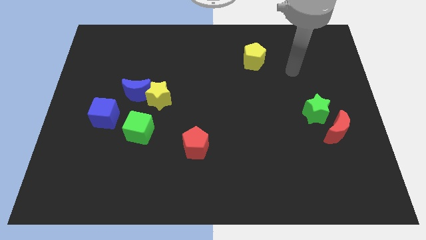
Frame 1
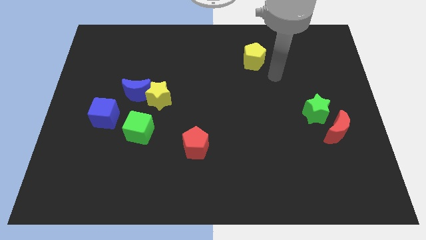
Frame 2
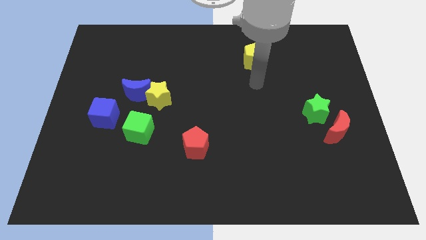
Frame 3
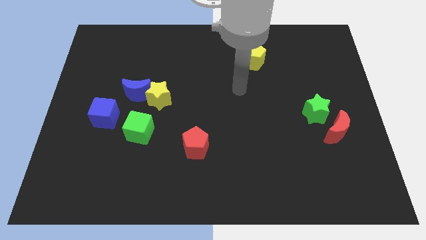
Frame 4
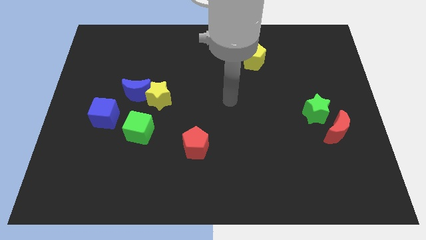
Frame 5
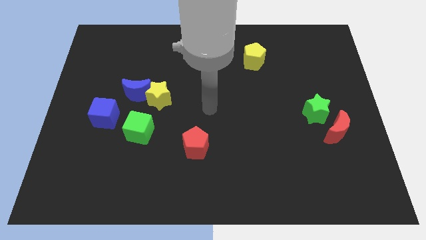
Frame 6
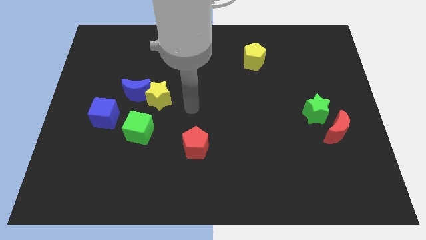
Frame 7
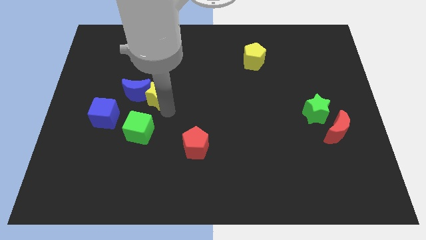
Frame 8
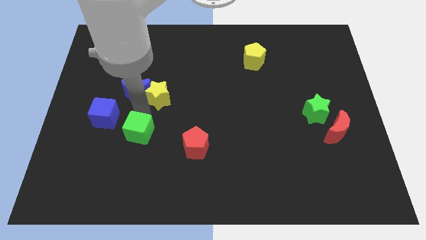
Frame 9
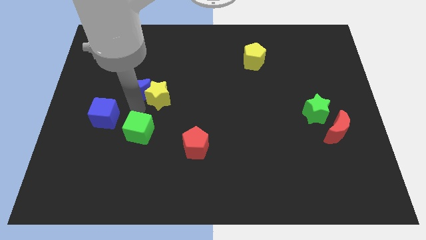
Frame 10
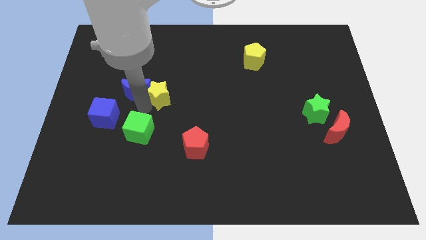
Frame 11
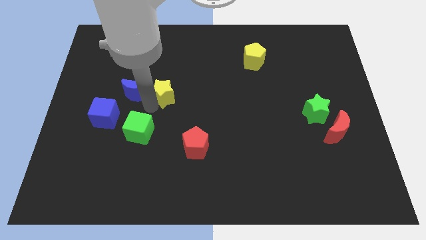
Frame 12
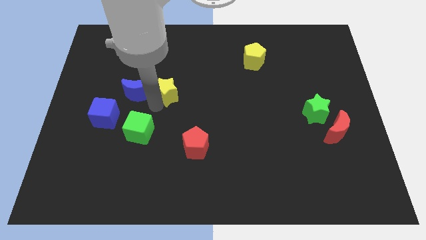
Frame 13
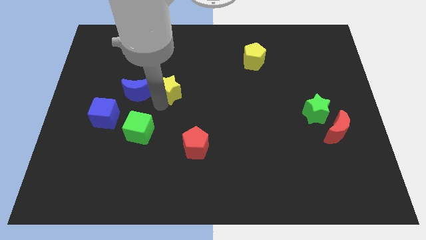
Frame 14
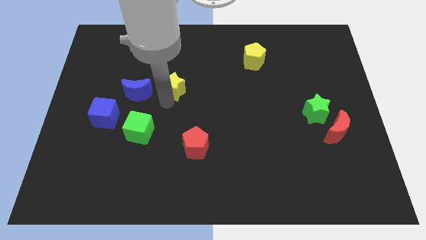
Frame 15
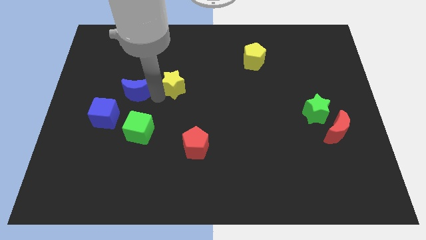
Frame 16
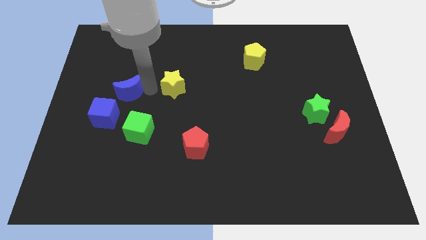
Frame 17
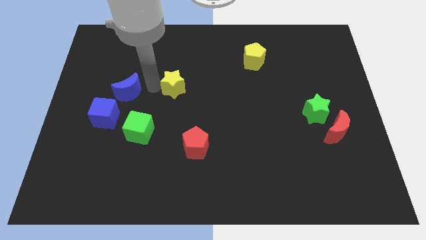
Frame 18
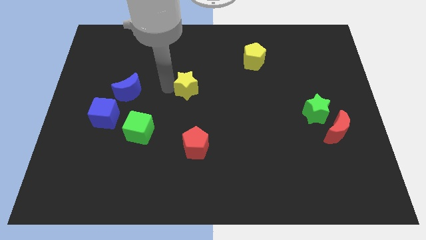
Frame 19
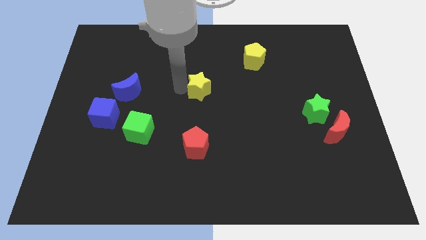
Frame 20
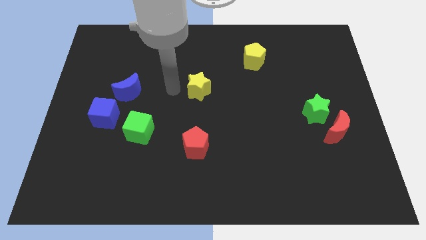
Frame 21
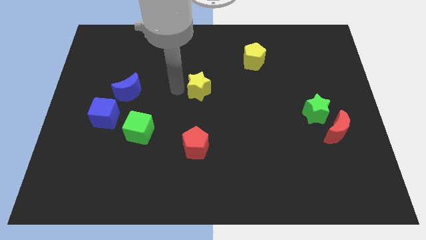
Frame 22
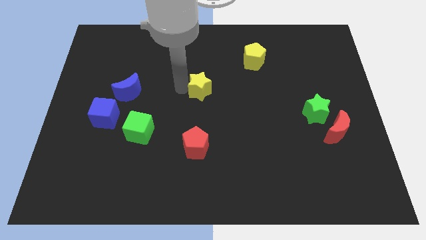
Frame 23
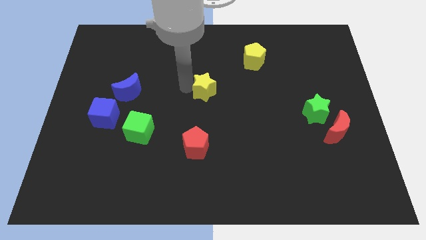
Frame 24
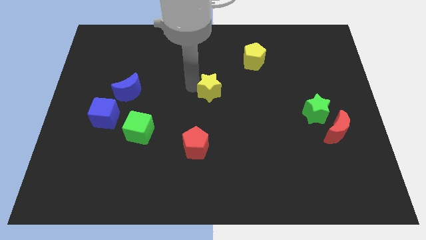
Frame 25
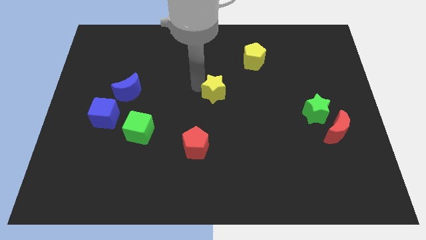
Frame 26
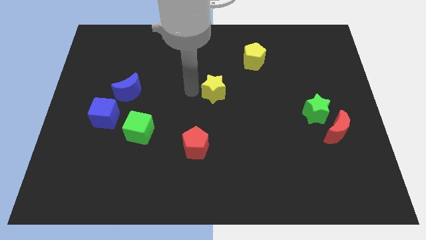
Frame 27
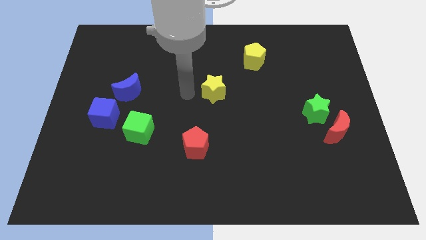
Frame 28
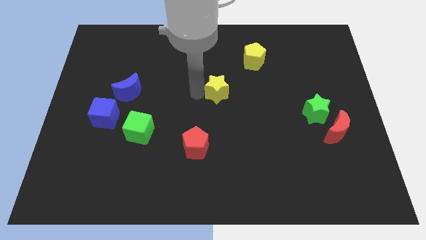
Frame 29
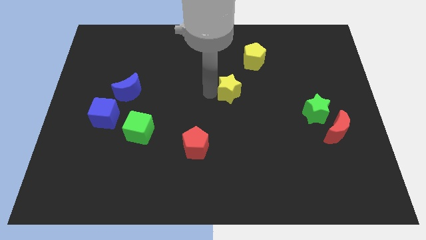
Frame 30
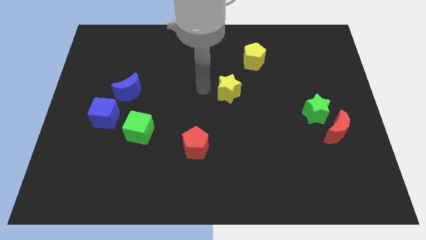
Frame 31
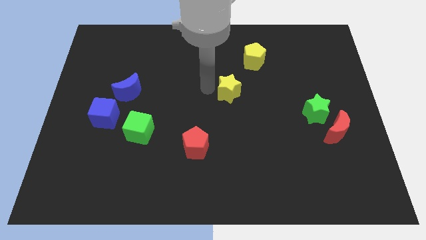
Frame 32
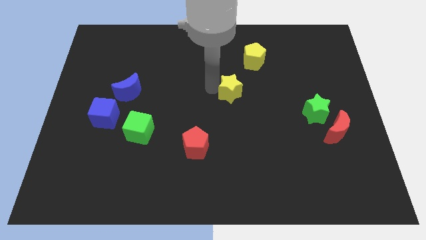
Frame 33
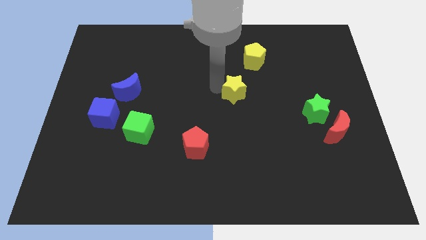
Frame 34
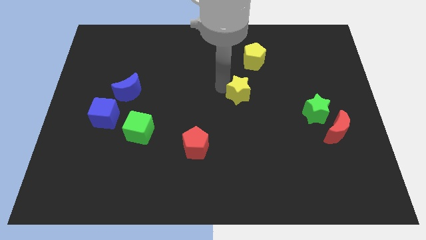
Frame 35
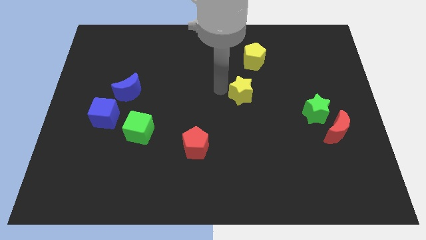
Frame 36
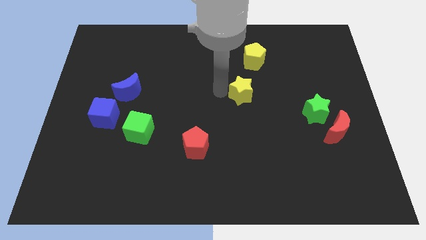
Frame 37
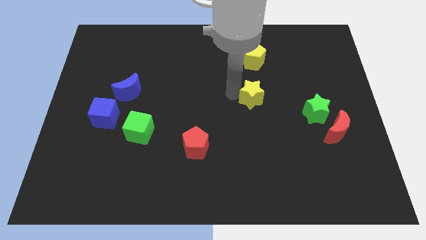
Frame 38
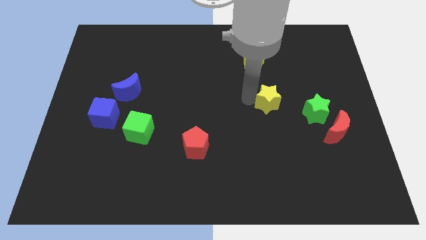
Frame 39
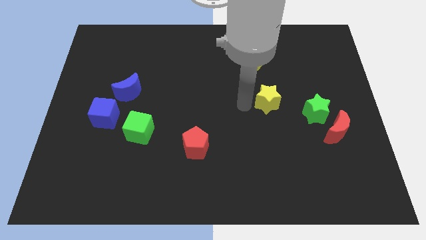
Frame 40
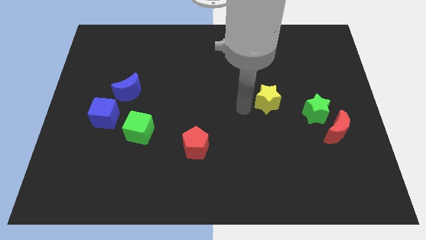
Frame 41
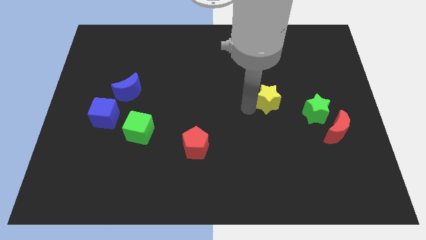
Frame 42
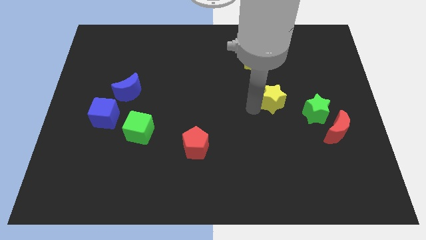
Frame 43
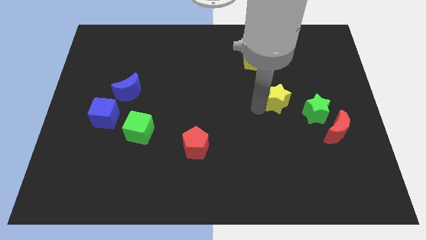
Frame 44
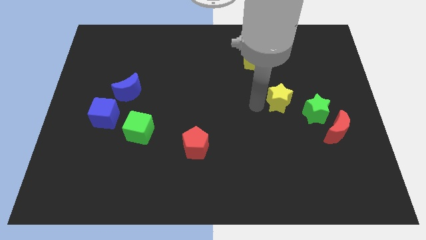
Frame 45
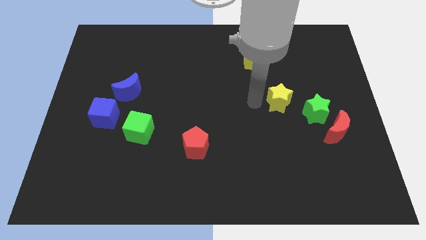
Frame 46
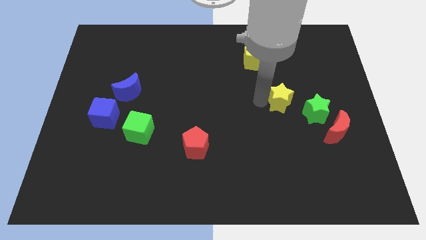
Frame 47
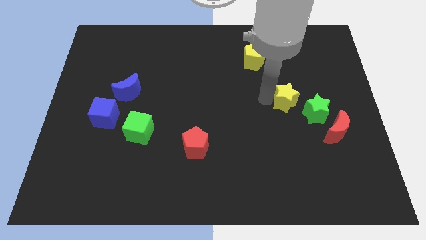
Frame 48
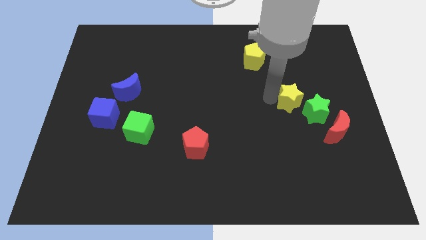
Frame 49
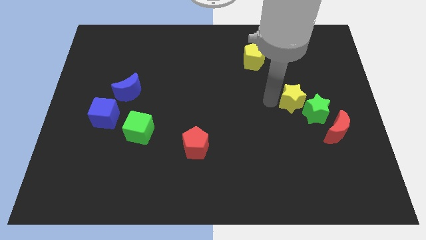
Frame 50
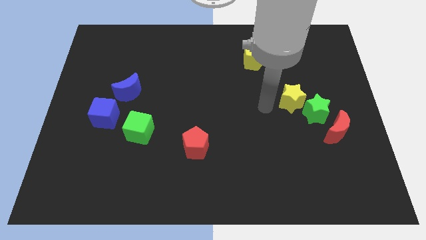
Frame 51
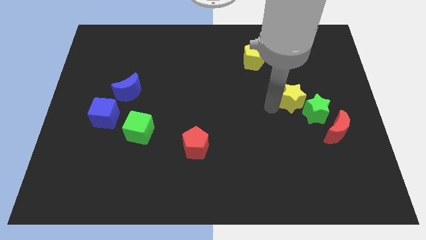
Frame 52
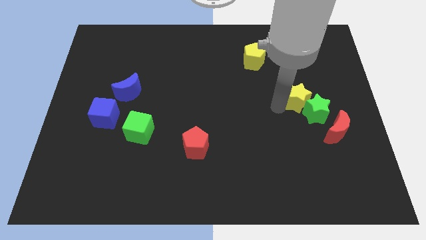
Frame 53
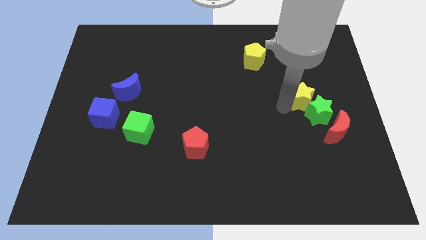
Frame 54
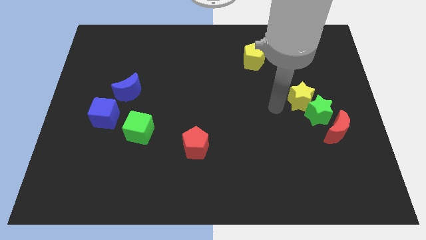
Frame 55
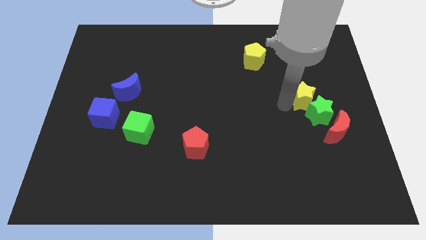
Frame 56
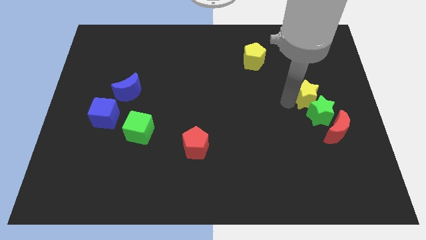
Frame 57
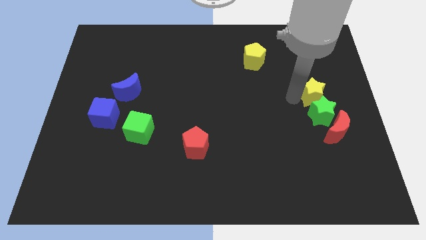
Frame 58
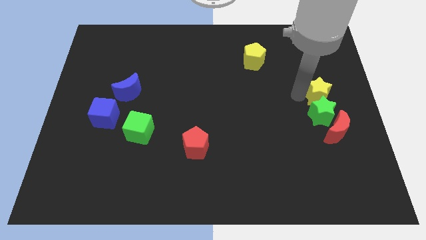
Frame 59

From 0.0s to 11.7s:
push the yellow star to the right side

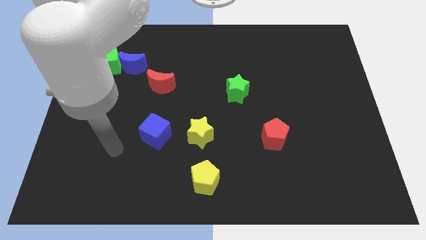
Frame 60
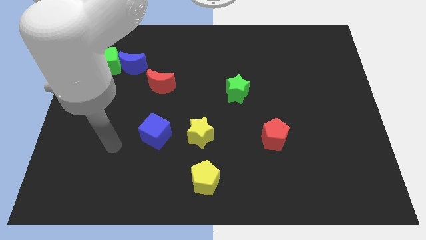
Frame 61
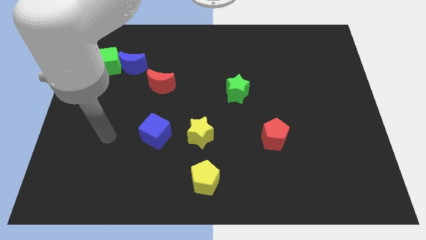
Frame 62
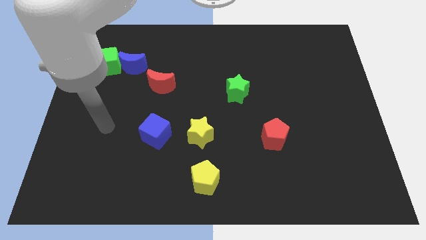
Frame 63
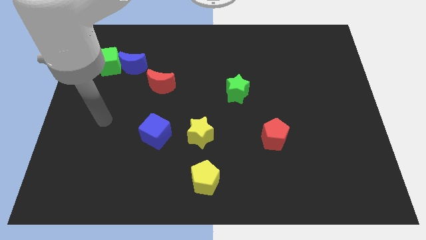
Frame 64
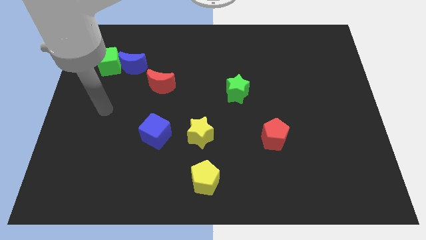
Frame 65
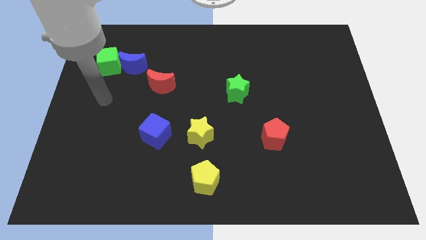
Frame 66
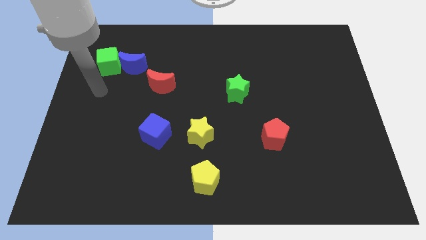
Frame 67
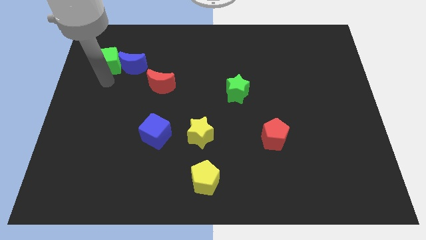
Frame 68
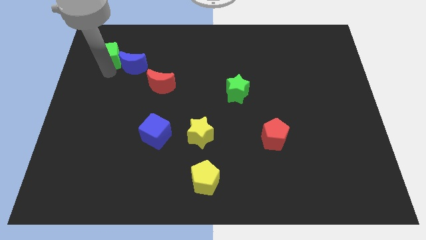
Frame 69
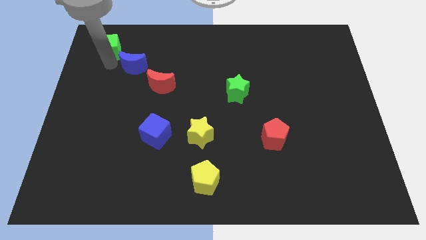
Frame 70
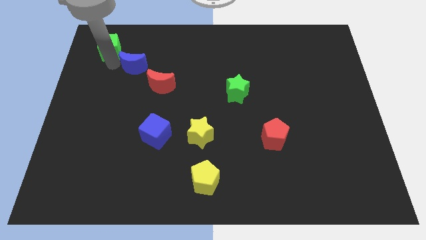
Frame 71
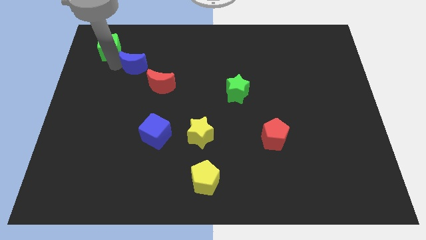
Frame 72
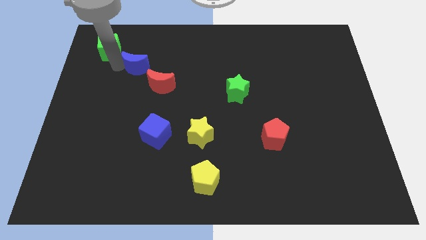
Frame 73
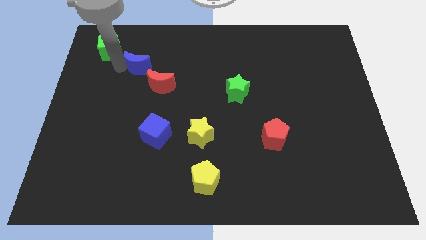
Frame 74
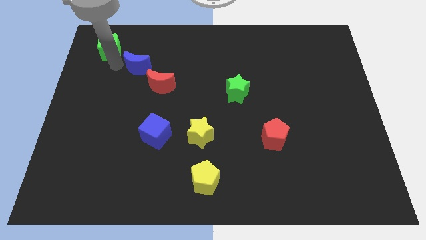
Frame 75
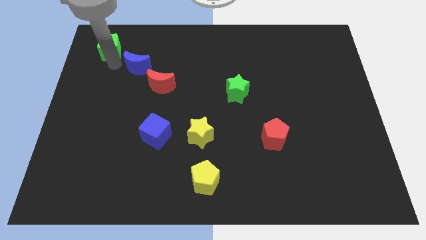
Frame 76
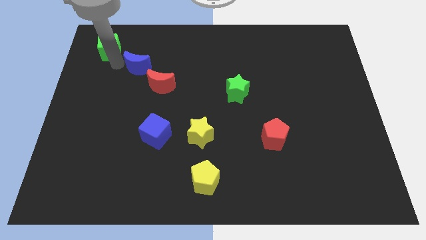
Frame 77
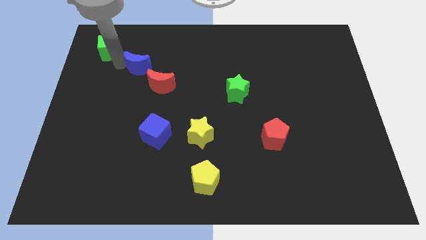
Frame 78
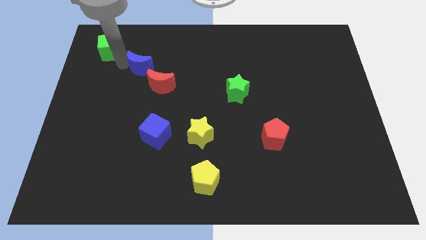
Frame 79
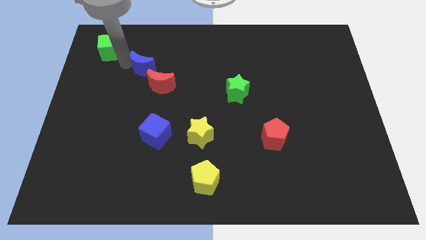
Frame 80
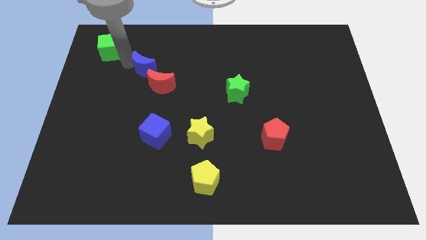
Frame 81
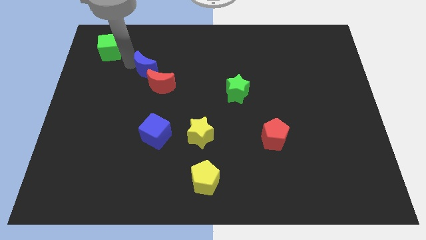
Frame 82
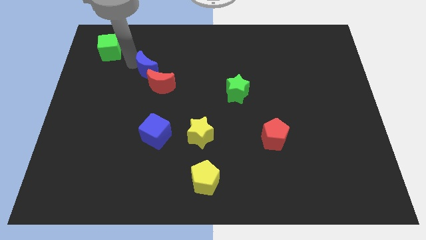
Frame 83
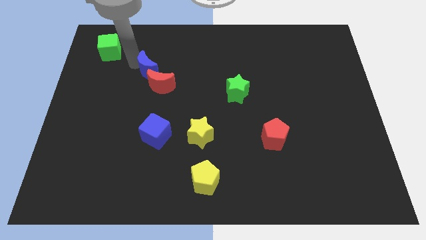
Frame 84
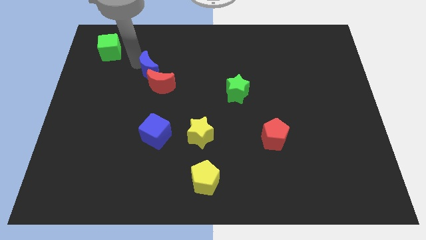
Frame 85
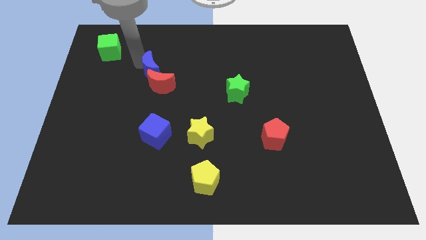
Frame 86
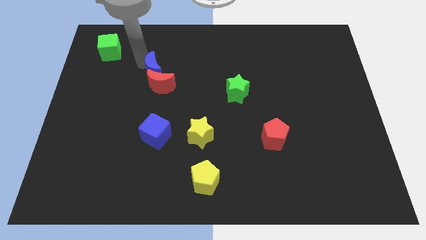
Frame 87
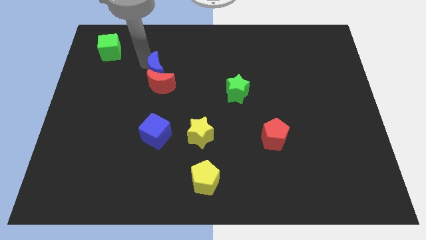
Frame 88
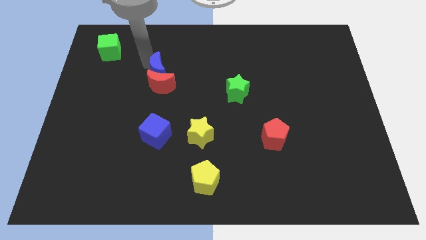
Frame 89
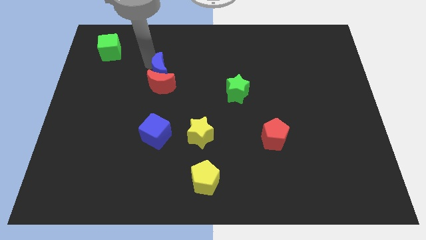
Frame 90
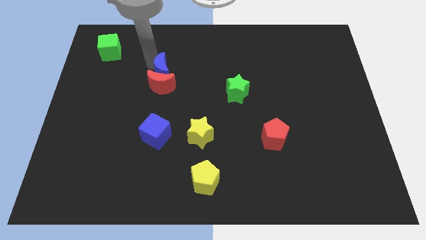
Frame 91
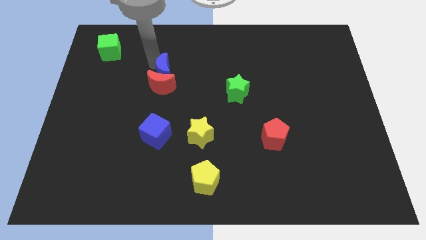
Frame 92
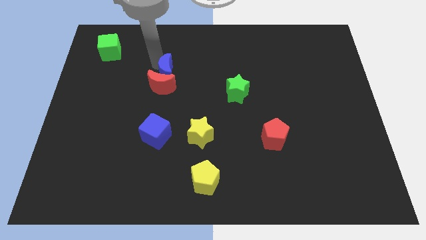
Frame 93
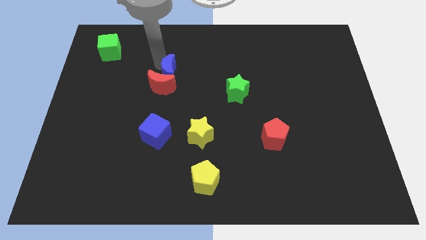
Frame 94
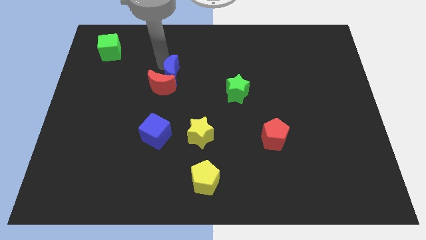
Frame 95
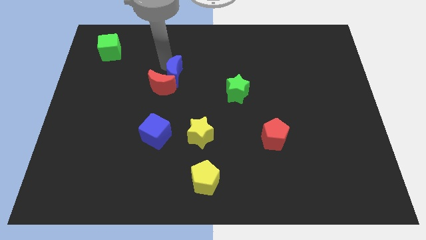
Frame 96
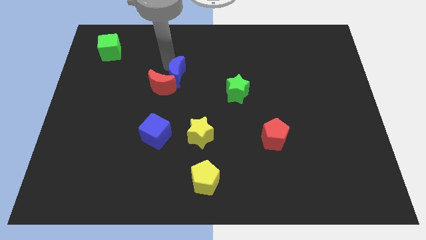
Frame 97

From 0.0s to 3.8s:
move the blue moon to the middle
